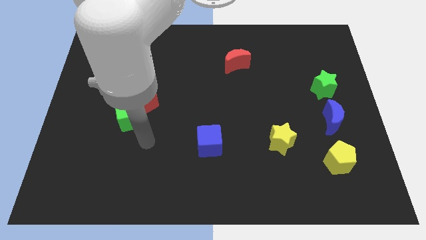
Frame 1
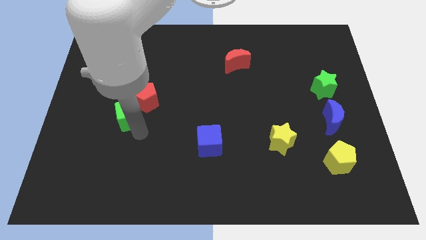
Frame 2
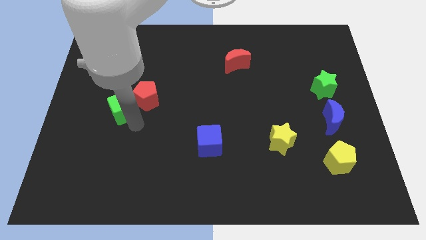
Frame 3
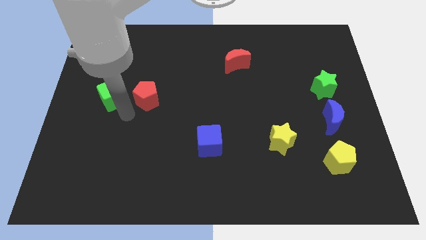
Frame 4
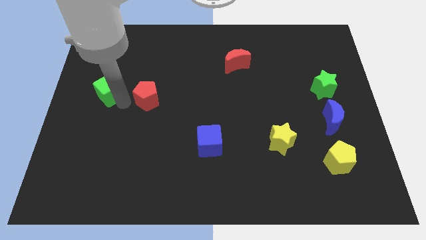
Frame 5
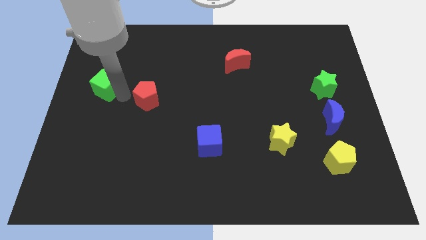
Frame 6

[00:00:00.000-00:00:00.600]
pull the red pentagon apart from the green cube

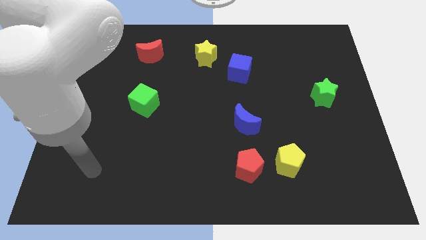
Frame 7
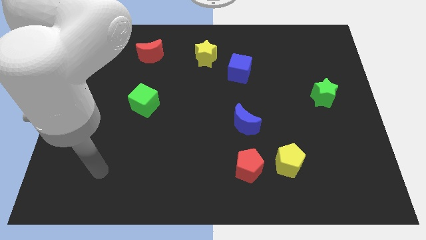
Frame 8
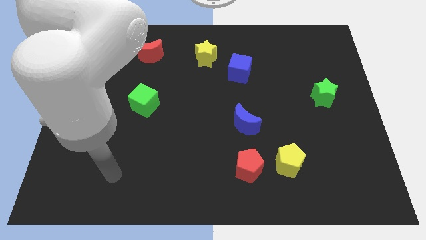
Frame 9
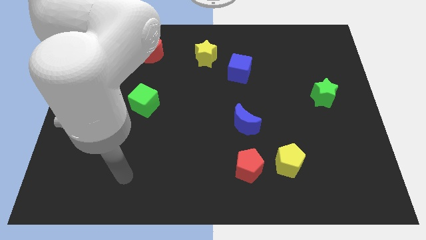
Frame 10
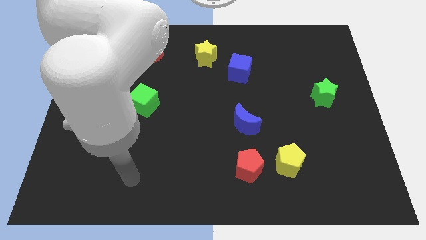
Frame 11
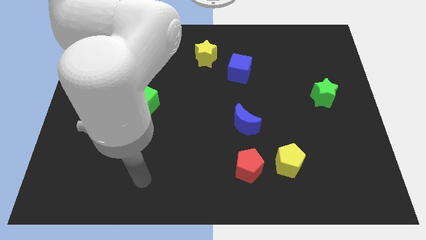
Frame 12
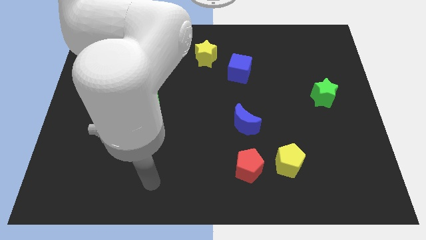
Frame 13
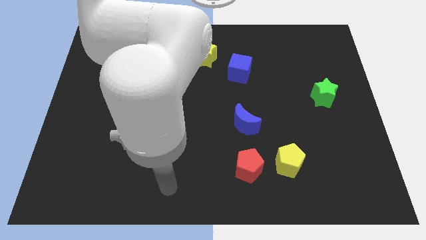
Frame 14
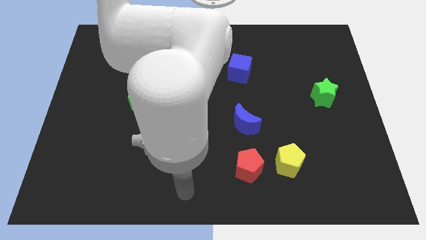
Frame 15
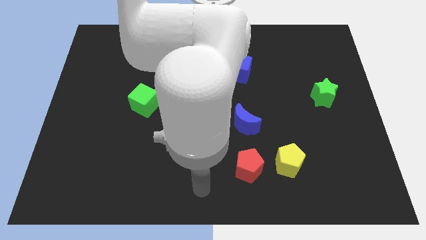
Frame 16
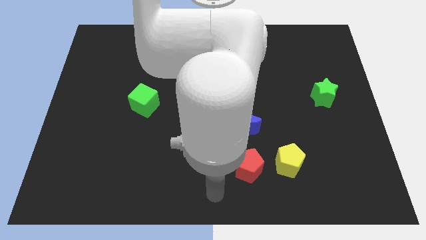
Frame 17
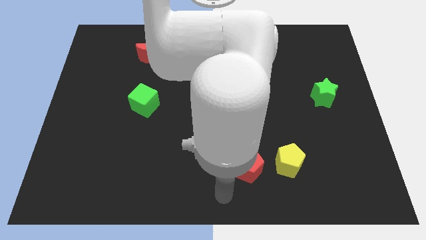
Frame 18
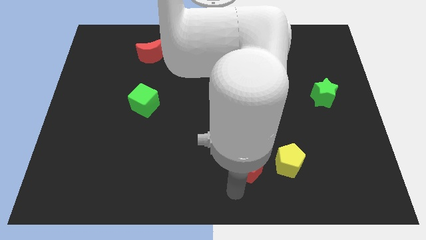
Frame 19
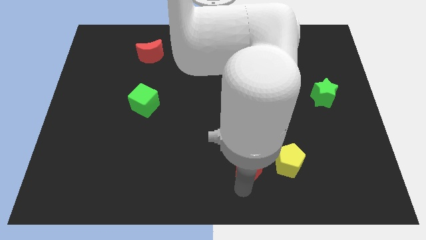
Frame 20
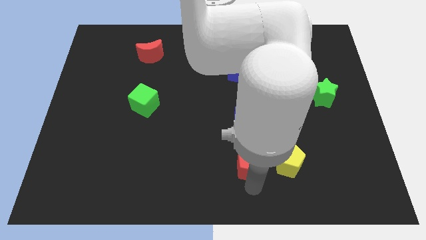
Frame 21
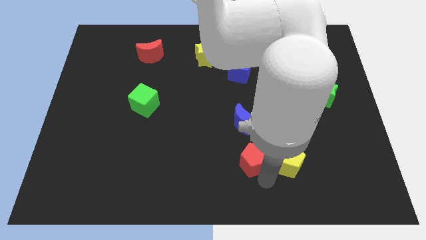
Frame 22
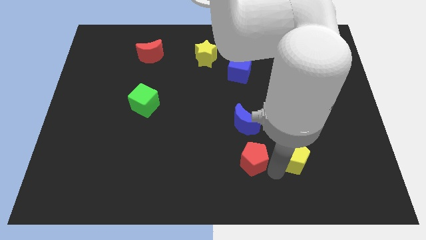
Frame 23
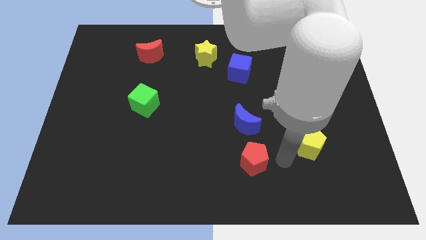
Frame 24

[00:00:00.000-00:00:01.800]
separate the red pentagon from the yellow pentagon

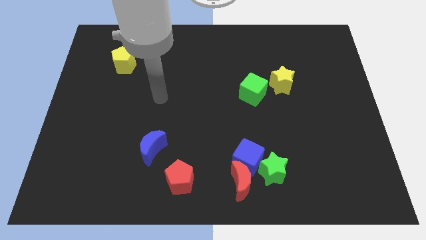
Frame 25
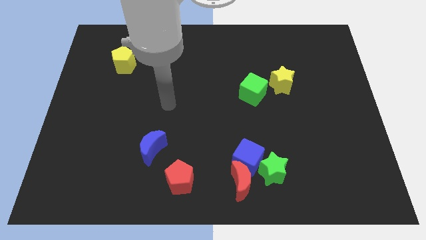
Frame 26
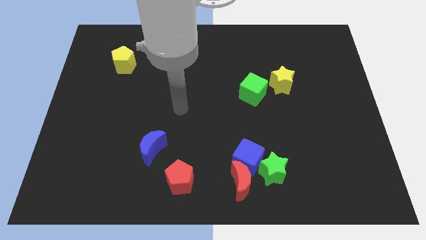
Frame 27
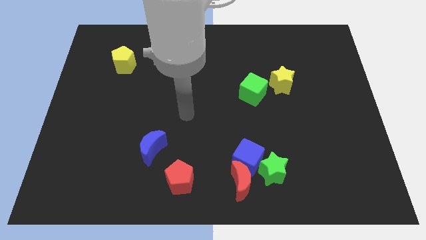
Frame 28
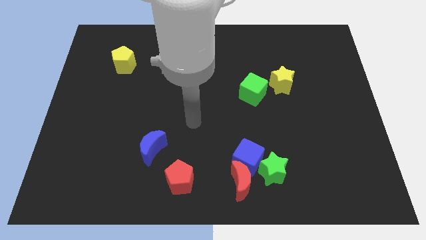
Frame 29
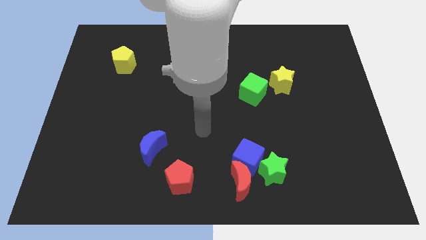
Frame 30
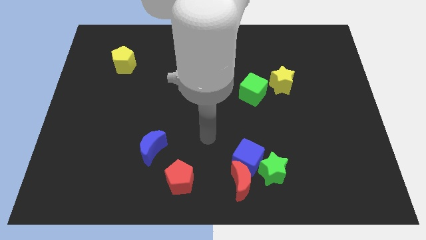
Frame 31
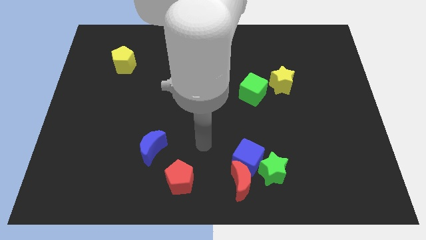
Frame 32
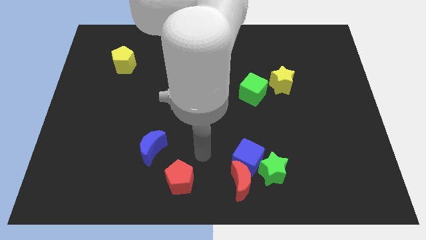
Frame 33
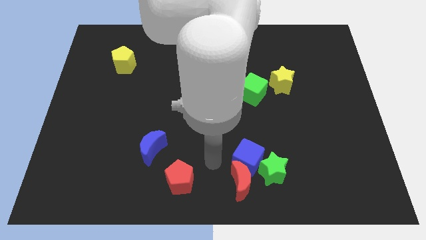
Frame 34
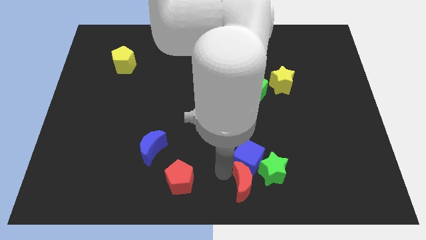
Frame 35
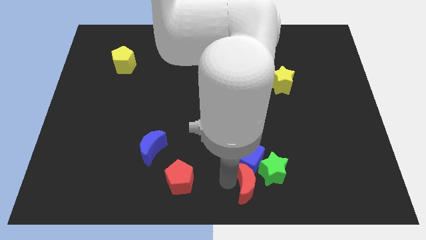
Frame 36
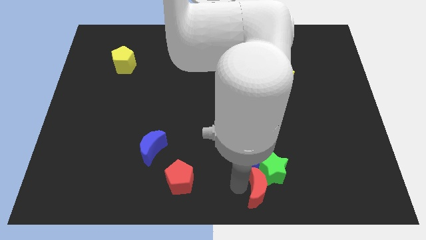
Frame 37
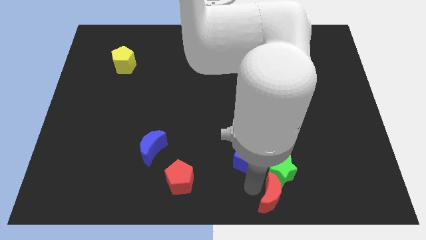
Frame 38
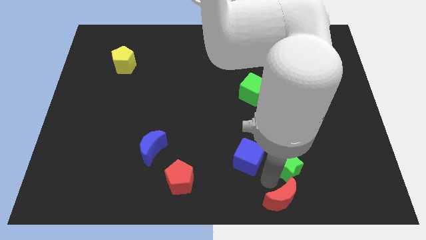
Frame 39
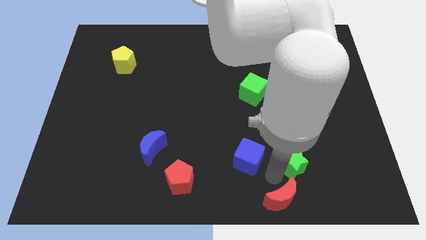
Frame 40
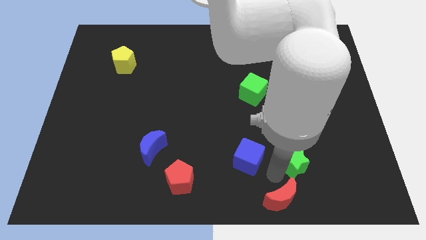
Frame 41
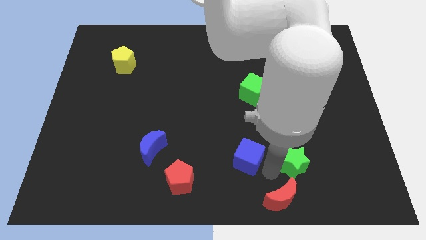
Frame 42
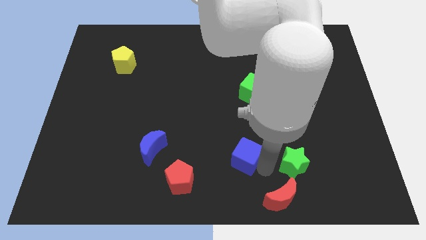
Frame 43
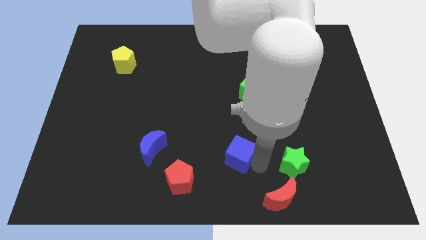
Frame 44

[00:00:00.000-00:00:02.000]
separate the blue cube from the red moon and green star

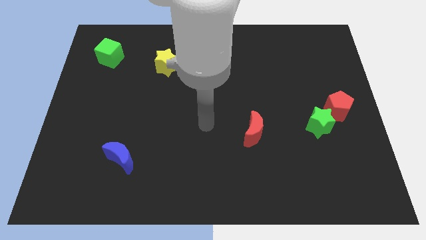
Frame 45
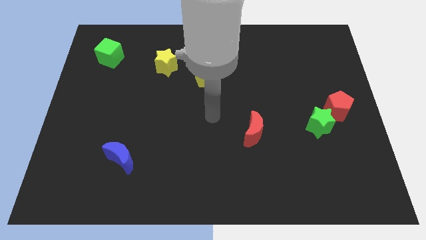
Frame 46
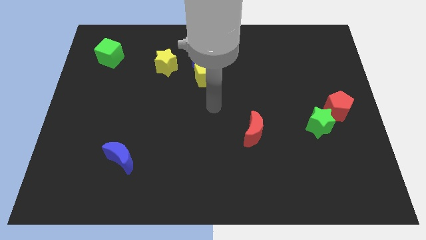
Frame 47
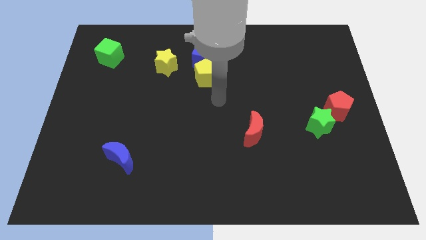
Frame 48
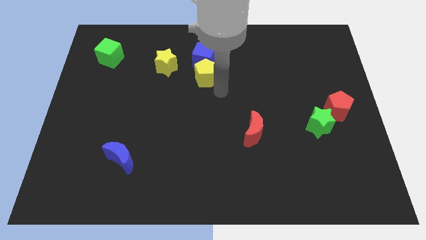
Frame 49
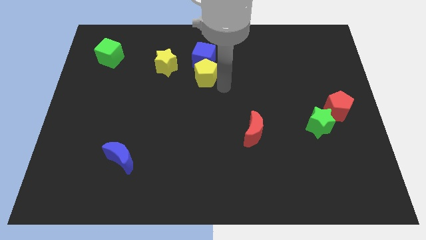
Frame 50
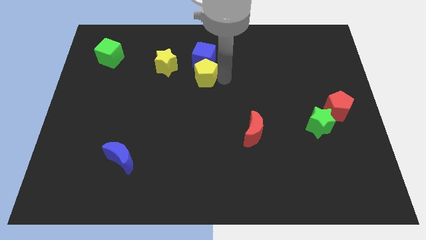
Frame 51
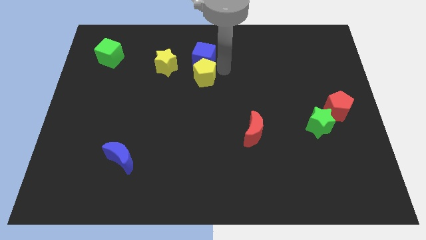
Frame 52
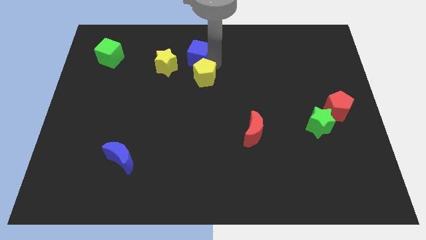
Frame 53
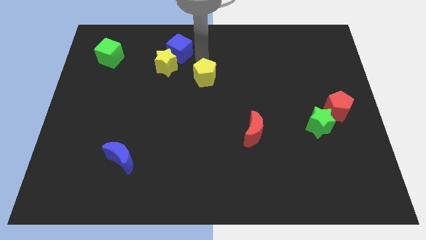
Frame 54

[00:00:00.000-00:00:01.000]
pull the yellow pentagon apart from the blue cube

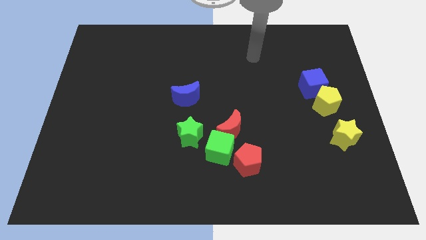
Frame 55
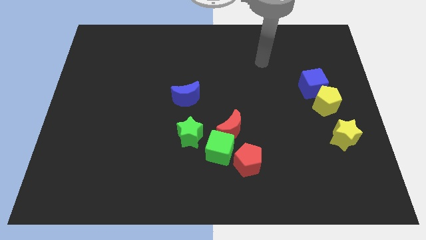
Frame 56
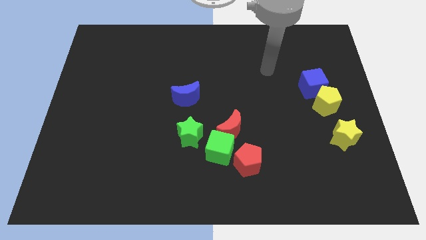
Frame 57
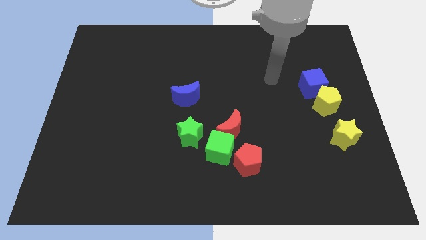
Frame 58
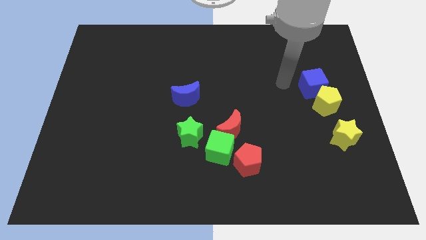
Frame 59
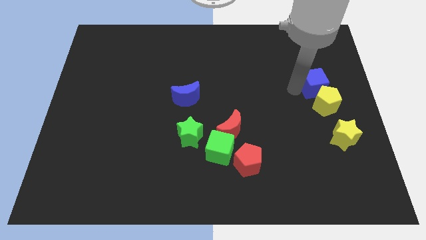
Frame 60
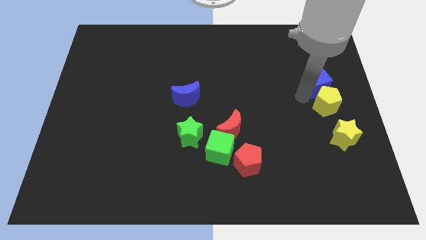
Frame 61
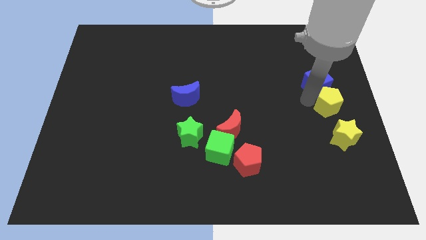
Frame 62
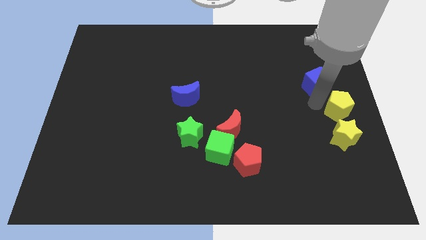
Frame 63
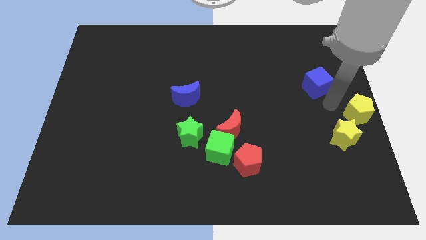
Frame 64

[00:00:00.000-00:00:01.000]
pull the blue cube apart from the yellow pentagon

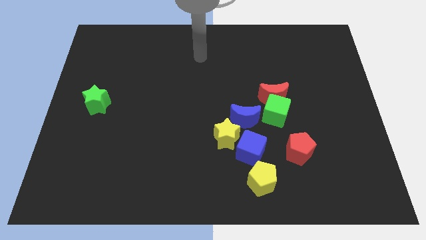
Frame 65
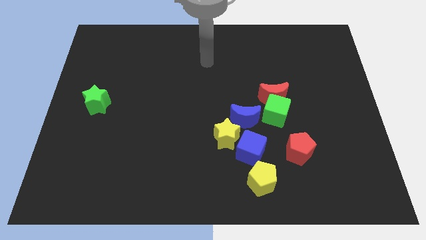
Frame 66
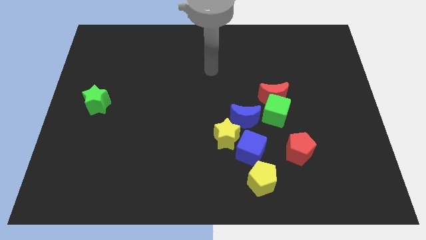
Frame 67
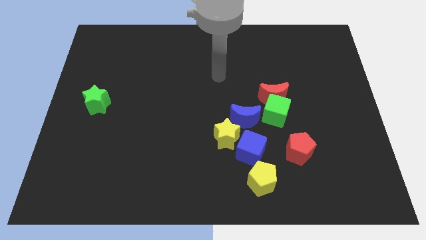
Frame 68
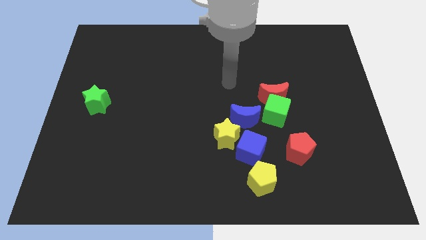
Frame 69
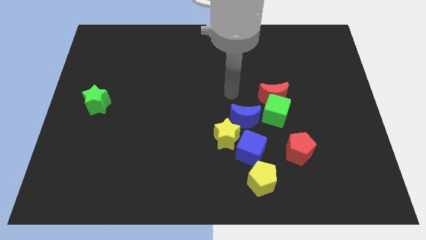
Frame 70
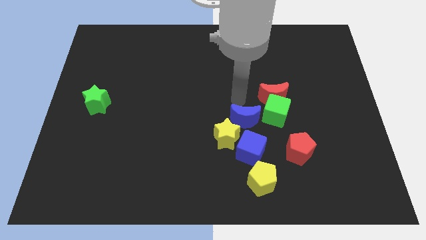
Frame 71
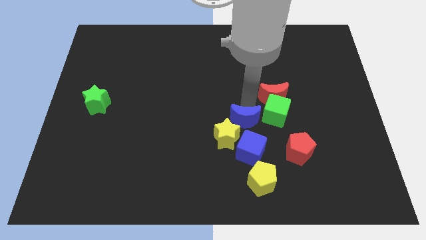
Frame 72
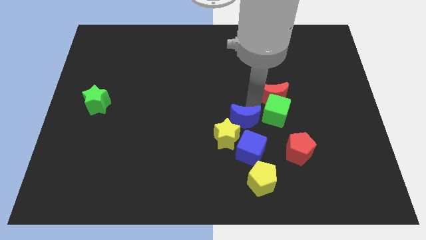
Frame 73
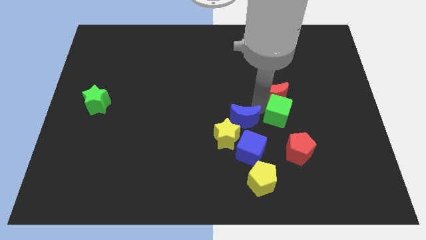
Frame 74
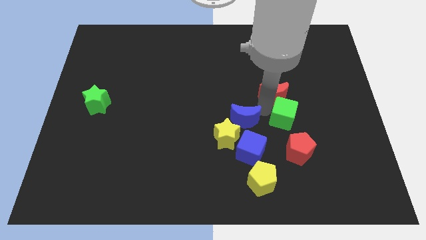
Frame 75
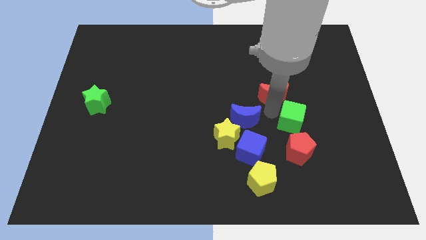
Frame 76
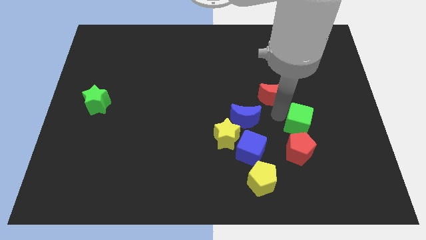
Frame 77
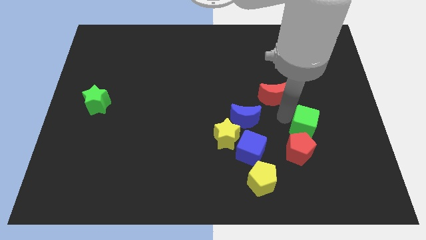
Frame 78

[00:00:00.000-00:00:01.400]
separate the green cube from the red moon and blue moon

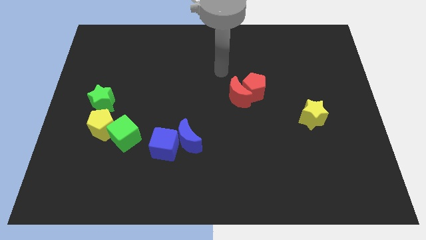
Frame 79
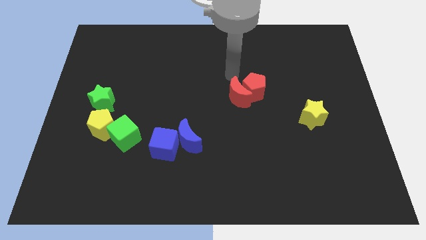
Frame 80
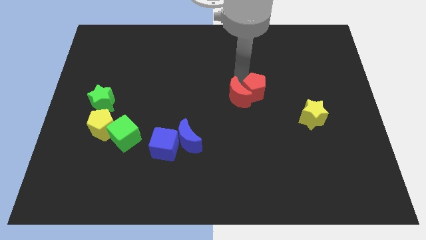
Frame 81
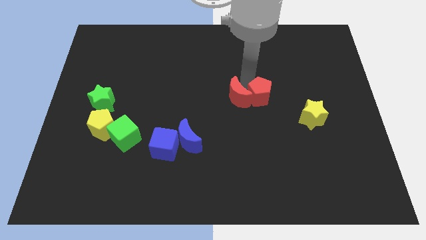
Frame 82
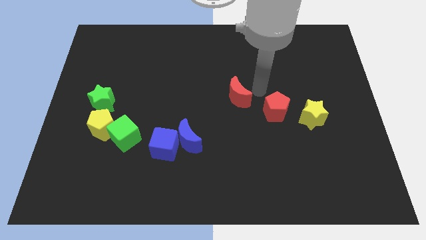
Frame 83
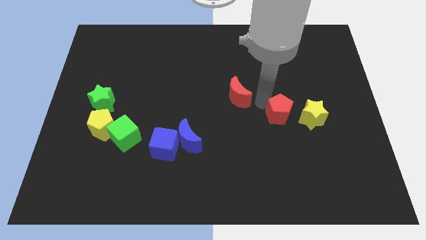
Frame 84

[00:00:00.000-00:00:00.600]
pull the red moon apart from the red pentagon

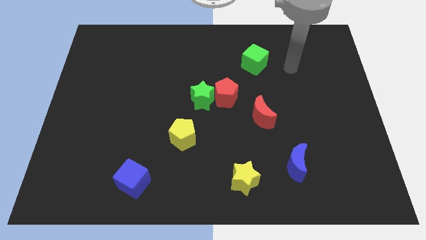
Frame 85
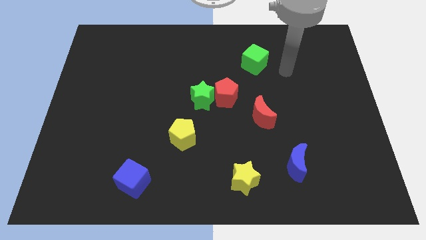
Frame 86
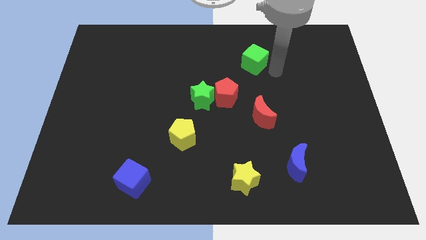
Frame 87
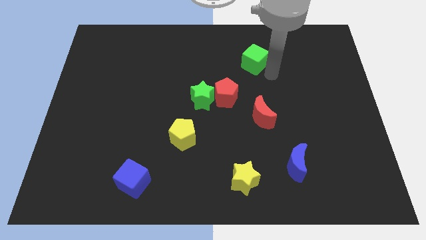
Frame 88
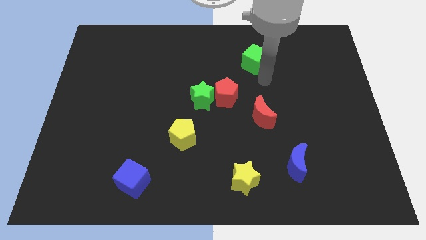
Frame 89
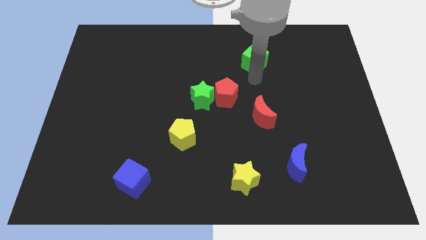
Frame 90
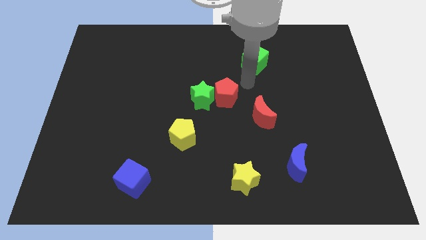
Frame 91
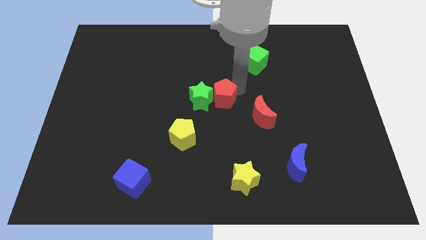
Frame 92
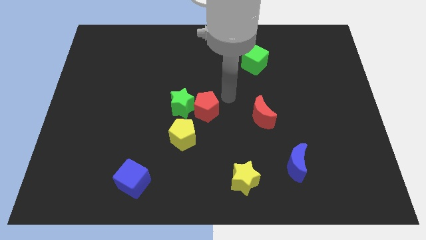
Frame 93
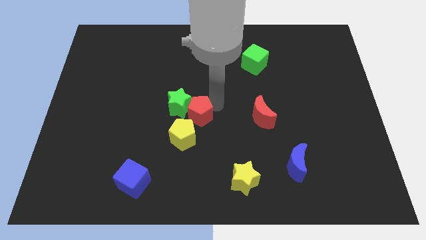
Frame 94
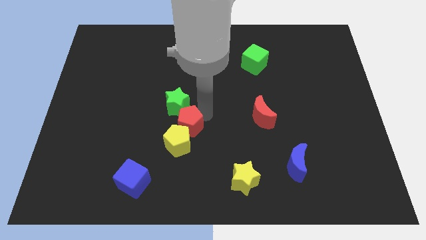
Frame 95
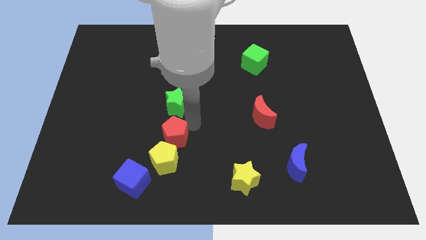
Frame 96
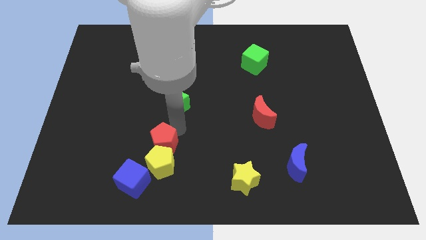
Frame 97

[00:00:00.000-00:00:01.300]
separate the green star from the red pentagon
